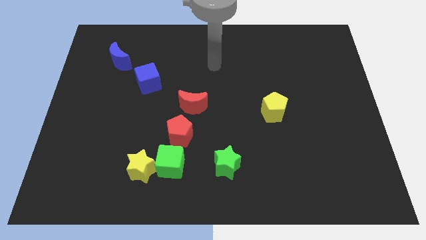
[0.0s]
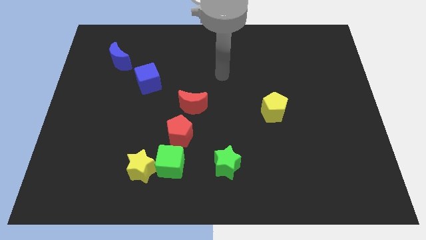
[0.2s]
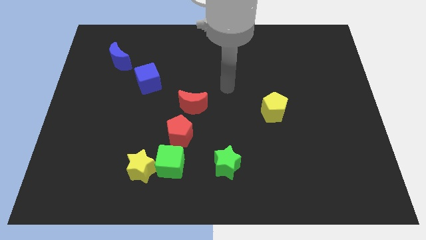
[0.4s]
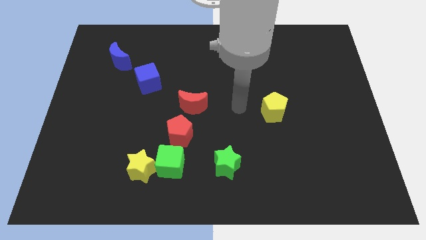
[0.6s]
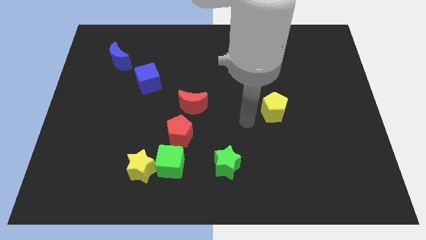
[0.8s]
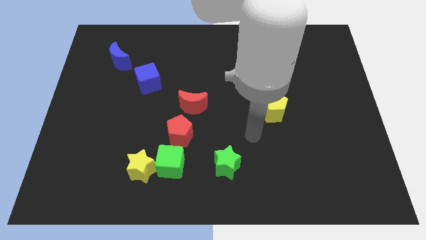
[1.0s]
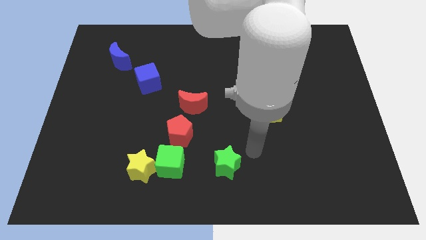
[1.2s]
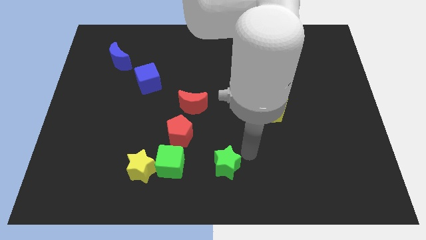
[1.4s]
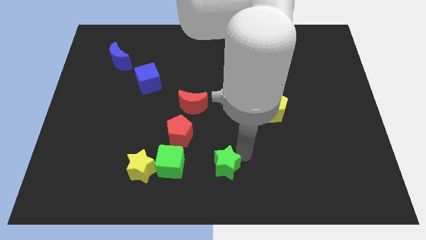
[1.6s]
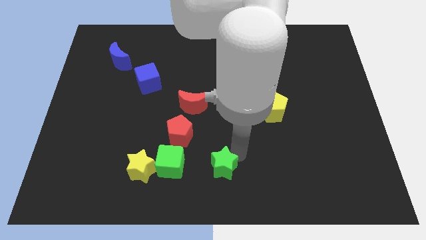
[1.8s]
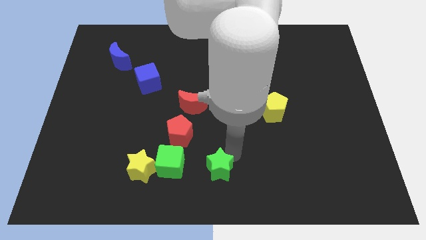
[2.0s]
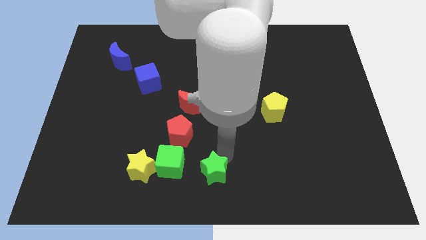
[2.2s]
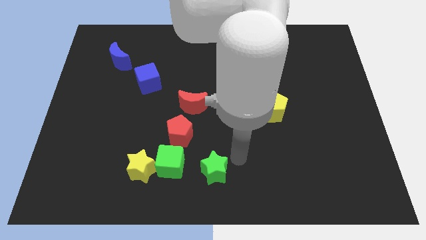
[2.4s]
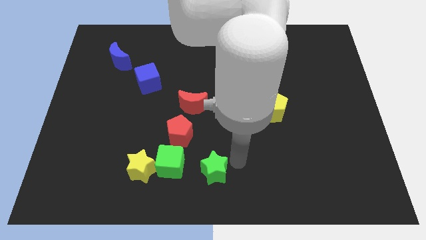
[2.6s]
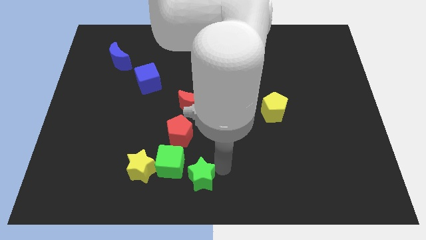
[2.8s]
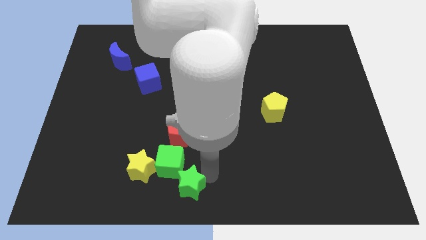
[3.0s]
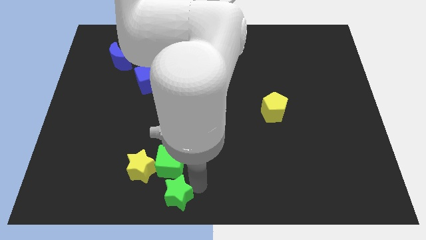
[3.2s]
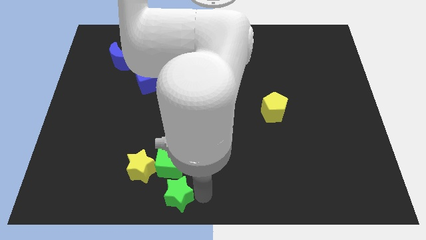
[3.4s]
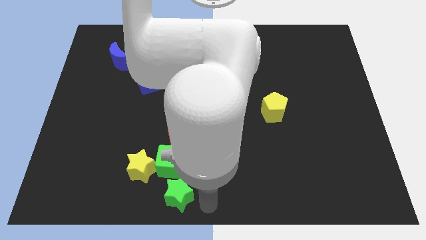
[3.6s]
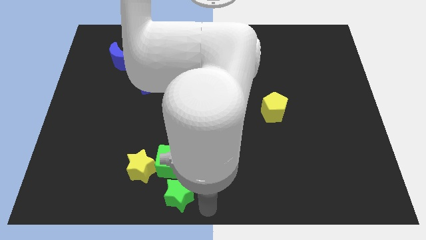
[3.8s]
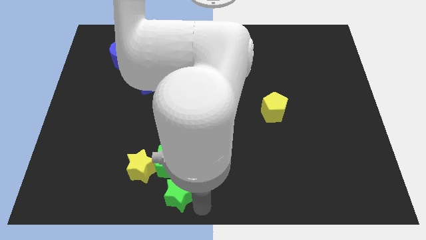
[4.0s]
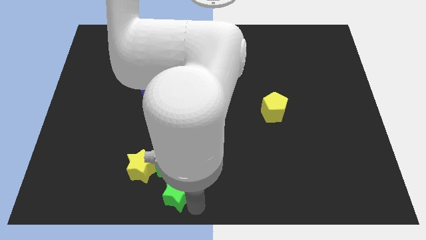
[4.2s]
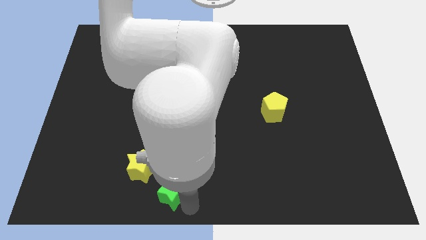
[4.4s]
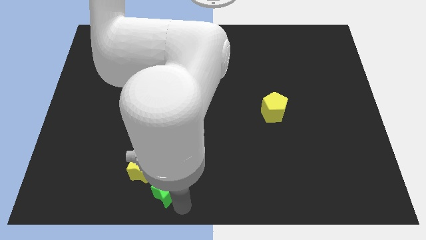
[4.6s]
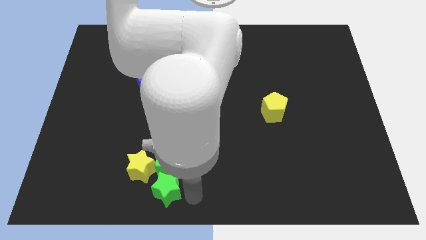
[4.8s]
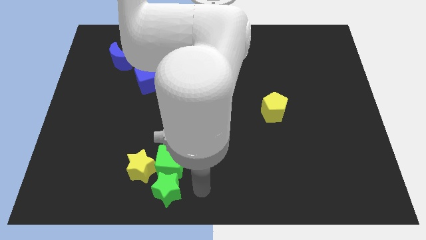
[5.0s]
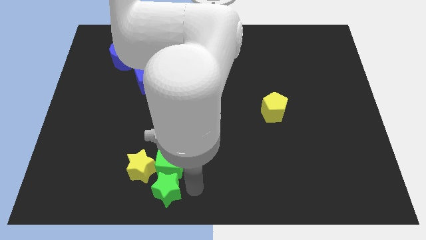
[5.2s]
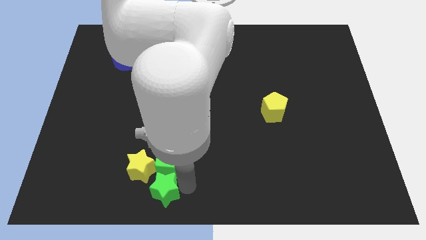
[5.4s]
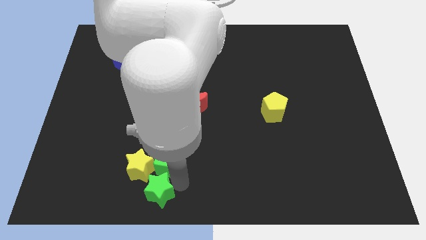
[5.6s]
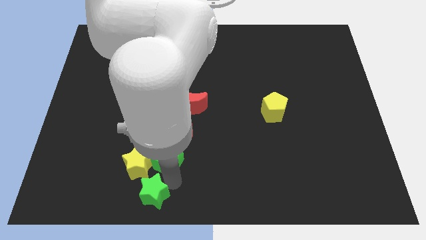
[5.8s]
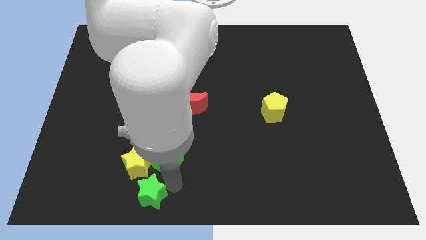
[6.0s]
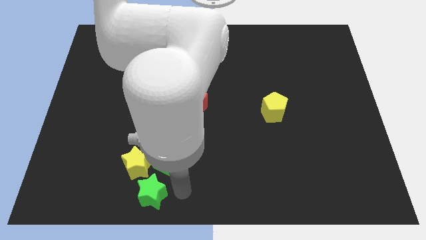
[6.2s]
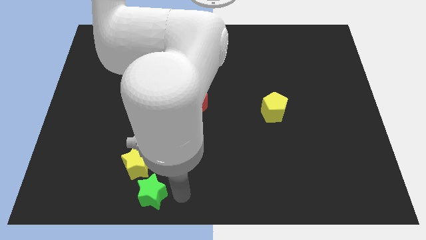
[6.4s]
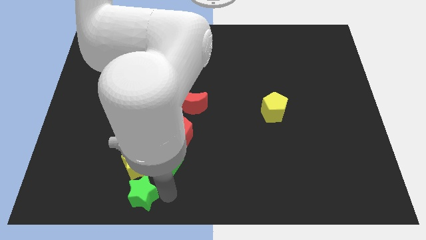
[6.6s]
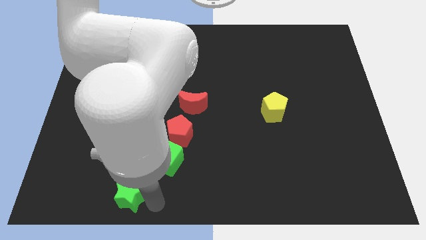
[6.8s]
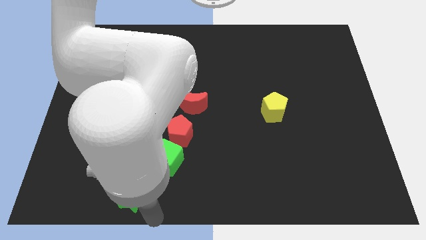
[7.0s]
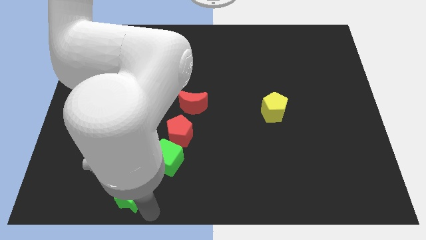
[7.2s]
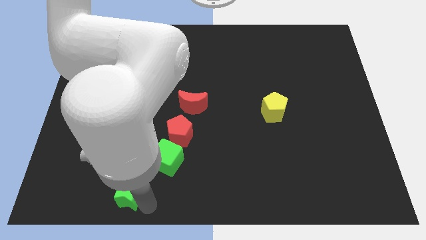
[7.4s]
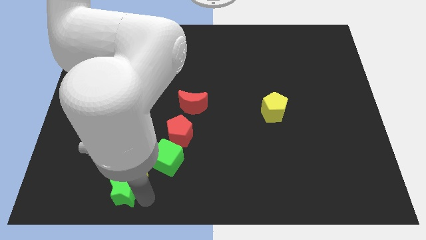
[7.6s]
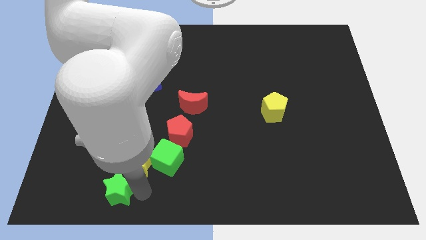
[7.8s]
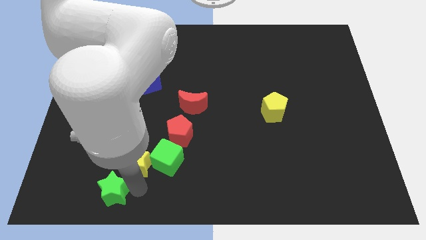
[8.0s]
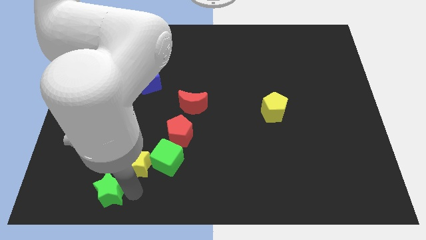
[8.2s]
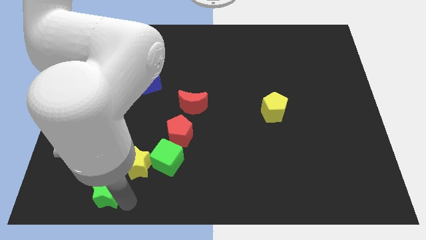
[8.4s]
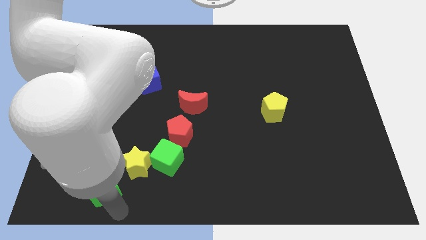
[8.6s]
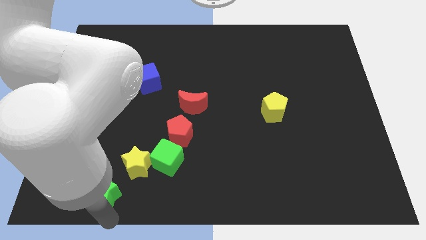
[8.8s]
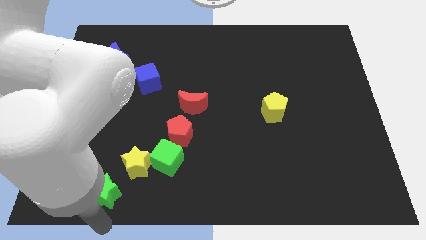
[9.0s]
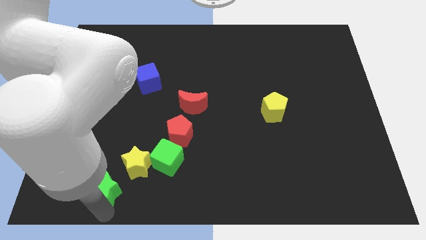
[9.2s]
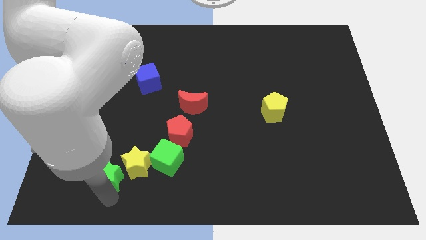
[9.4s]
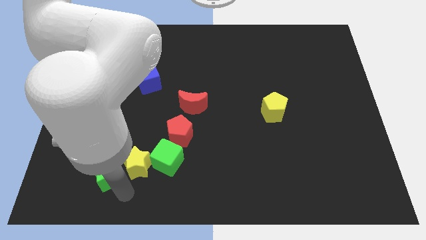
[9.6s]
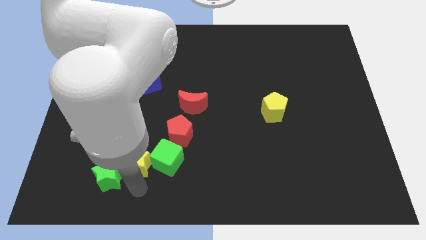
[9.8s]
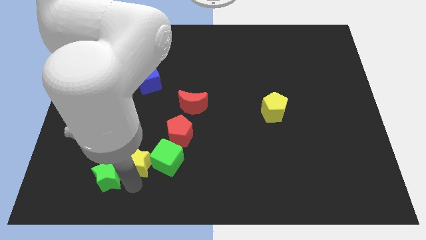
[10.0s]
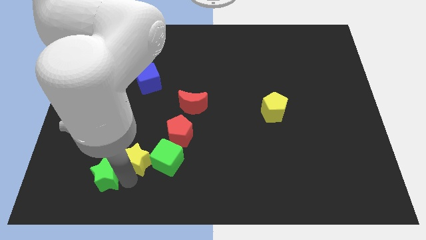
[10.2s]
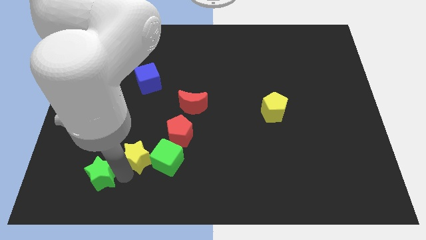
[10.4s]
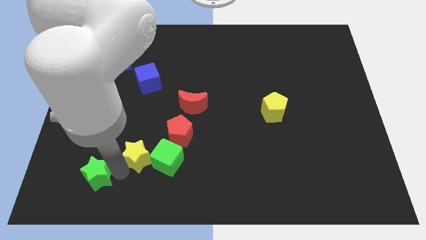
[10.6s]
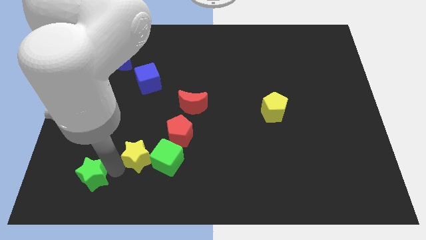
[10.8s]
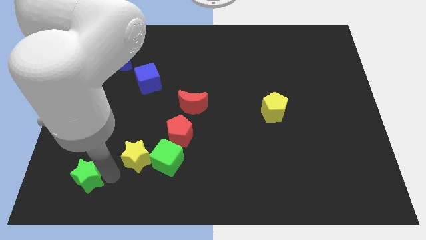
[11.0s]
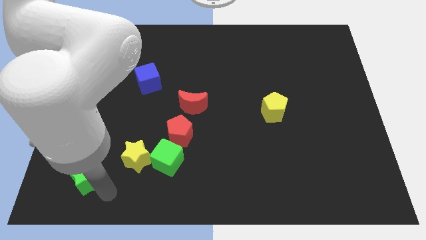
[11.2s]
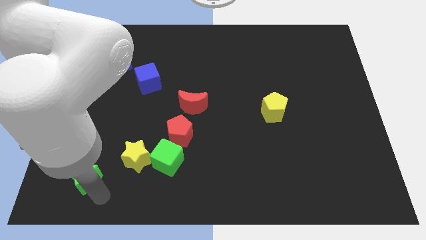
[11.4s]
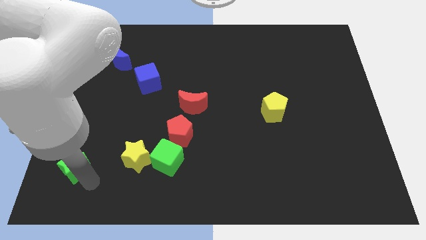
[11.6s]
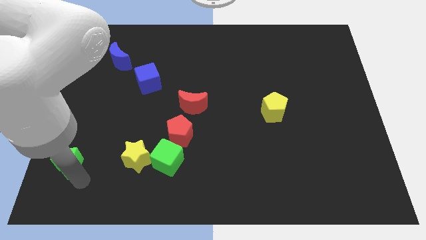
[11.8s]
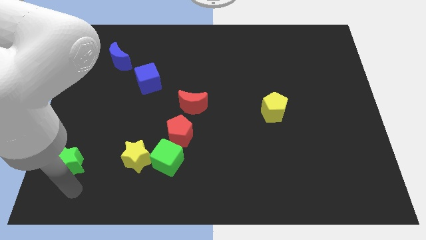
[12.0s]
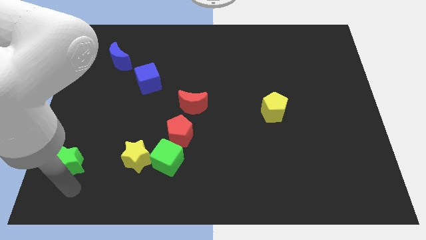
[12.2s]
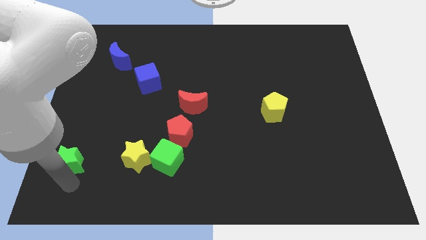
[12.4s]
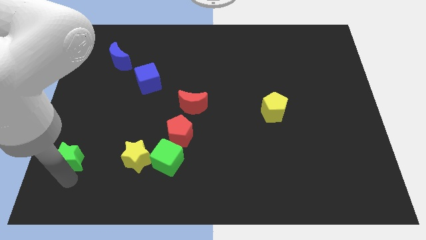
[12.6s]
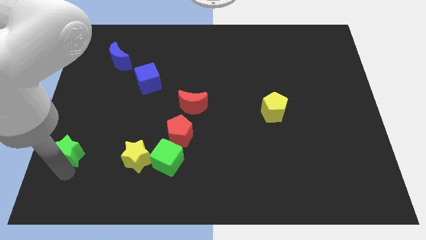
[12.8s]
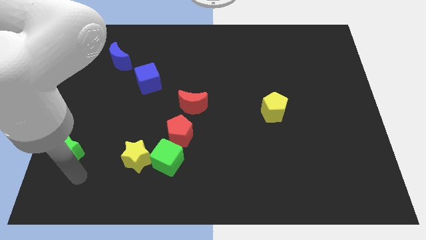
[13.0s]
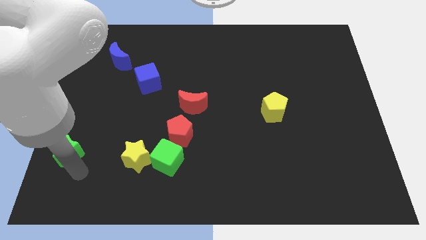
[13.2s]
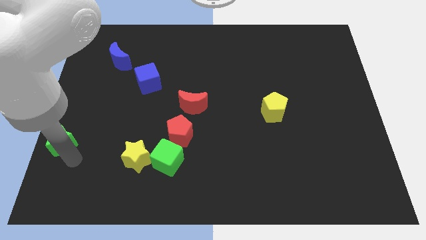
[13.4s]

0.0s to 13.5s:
push the green star to the left side of the board
